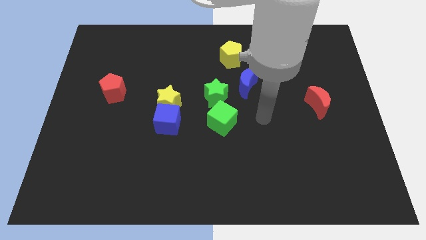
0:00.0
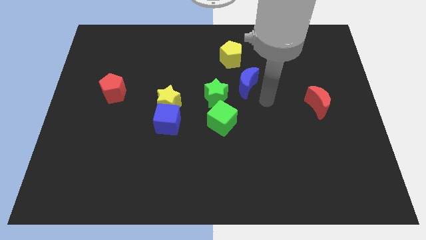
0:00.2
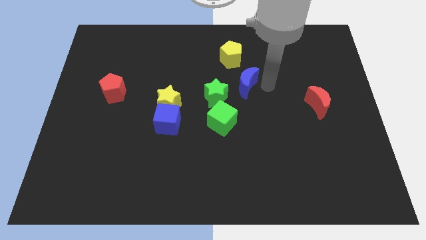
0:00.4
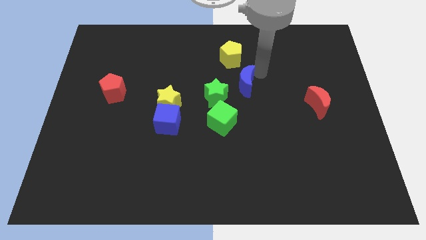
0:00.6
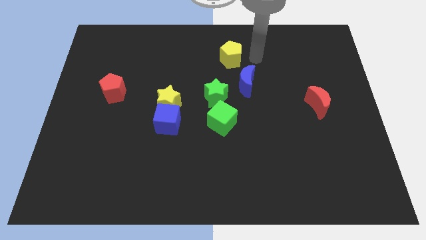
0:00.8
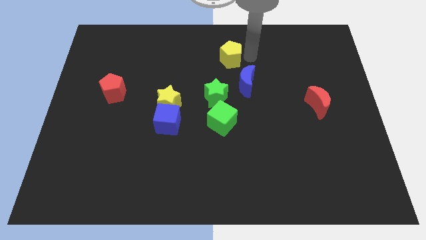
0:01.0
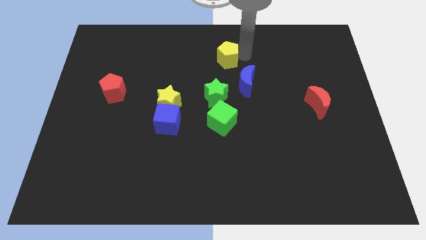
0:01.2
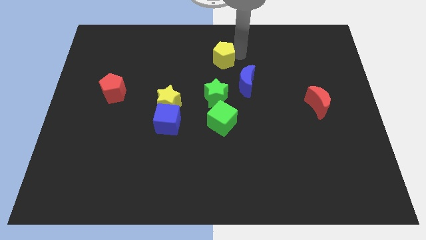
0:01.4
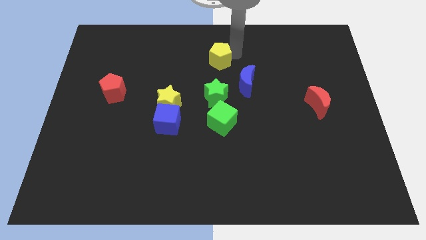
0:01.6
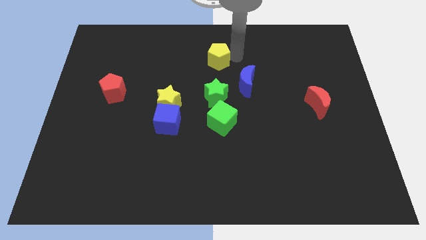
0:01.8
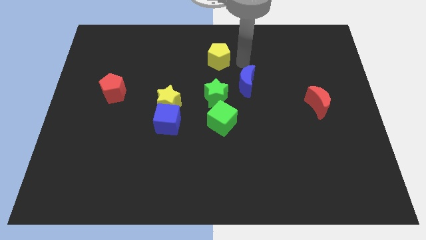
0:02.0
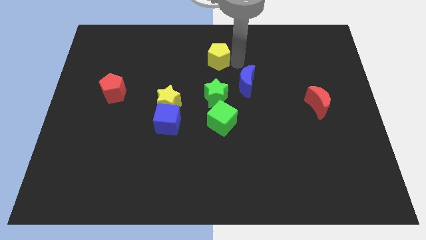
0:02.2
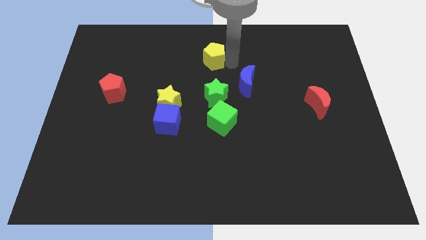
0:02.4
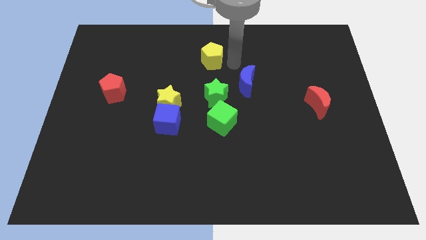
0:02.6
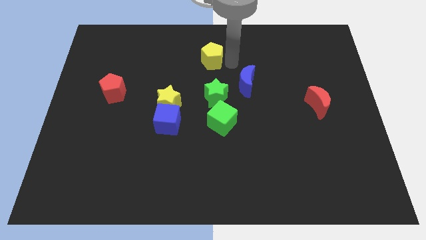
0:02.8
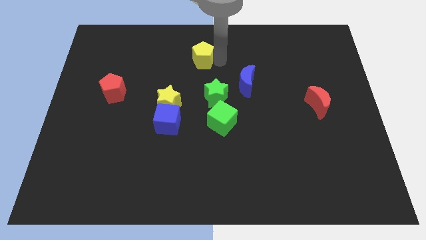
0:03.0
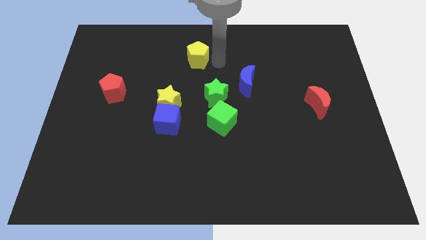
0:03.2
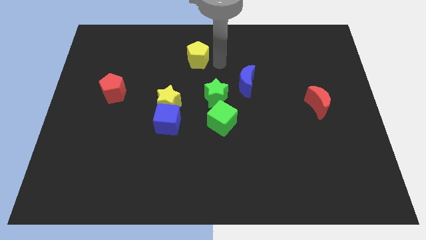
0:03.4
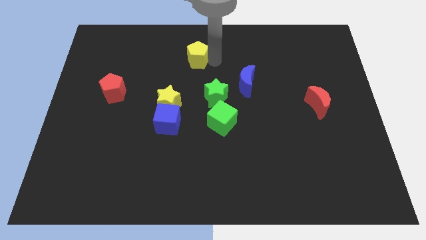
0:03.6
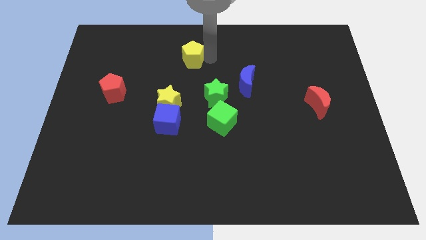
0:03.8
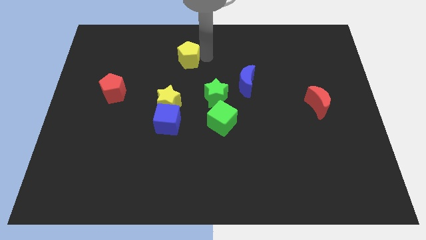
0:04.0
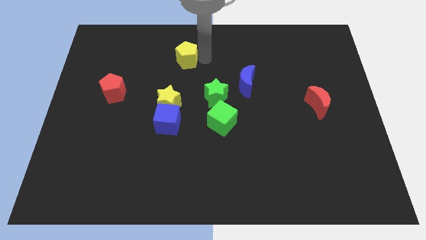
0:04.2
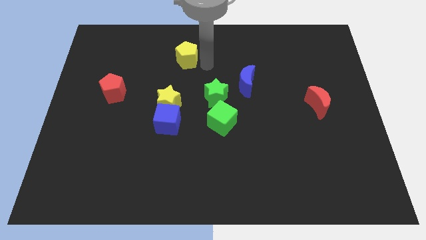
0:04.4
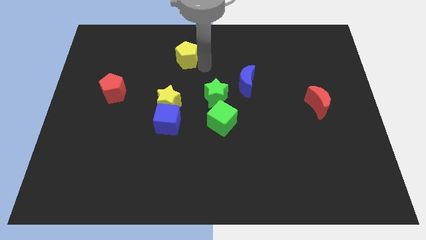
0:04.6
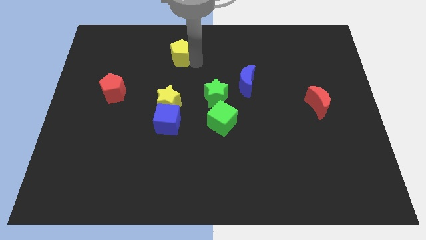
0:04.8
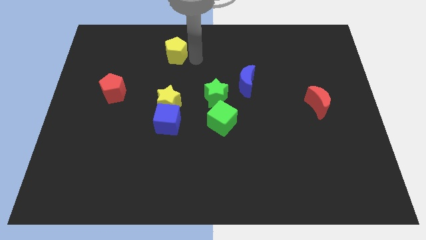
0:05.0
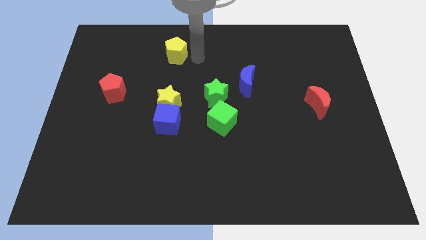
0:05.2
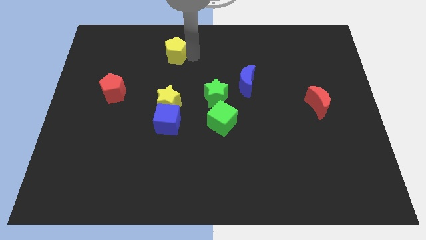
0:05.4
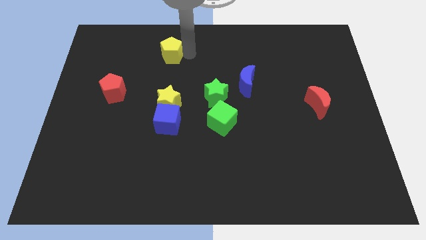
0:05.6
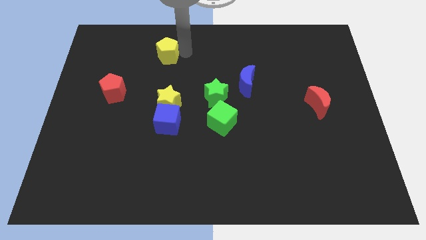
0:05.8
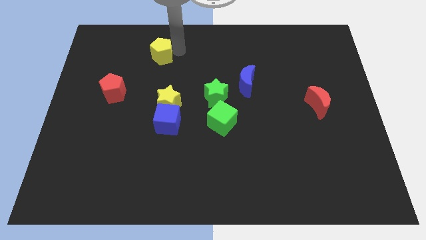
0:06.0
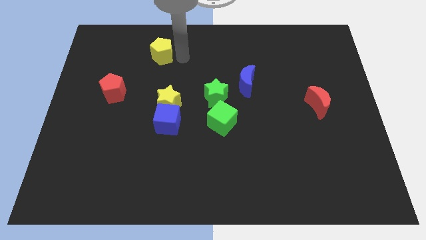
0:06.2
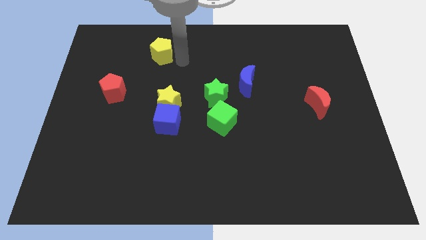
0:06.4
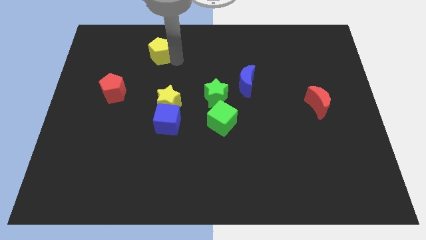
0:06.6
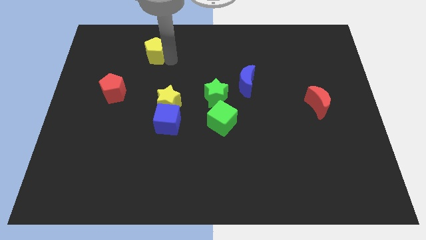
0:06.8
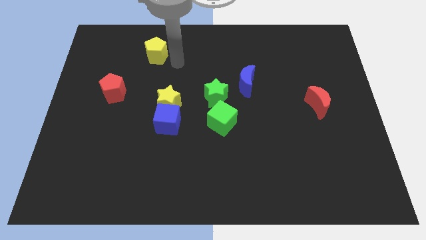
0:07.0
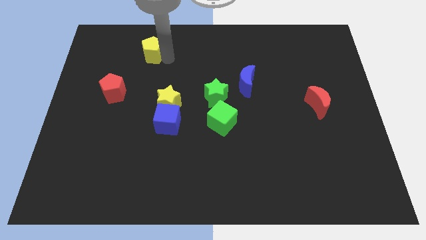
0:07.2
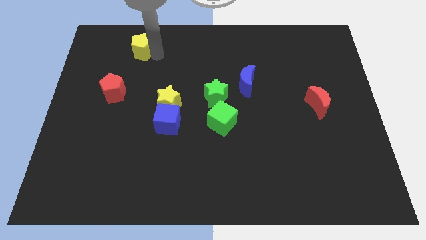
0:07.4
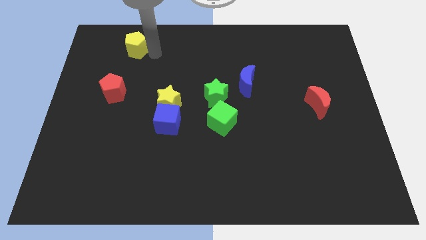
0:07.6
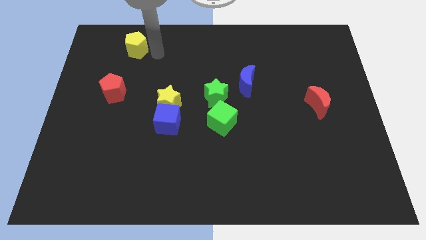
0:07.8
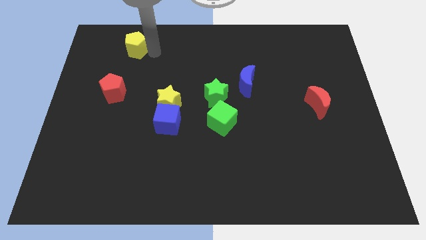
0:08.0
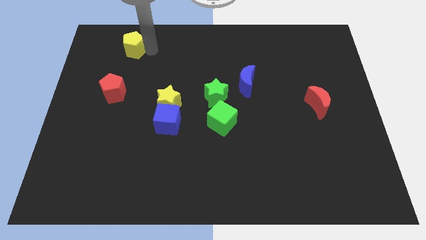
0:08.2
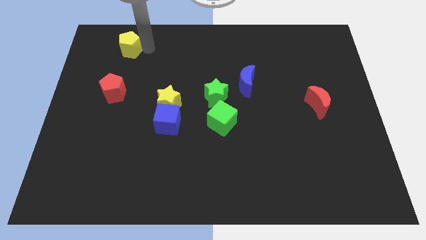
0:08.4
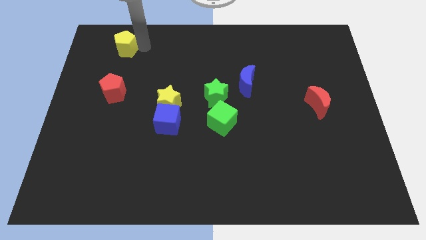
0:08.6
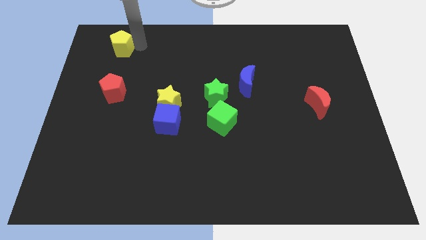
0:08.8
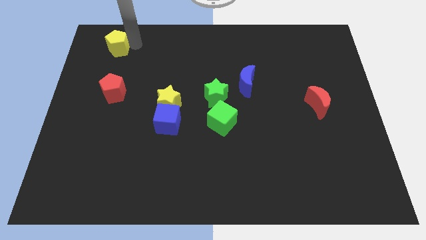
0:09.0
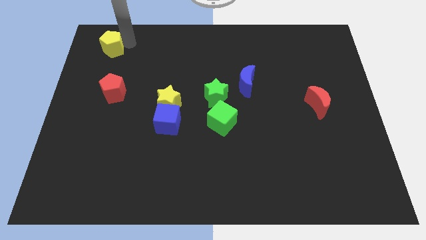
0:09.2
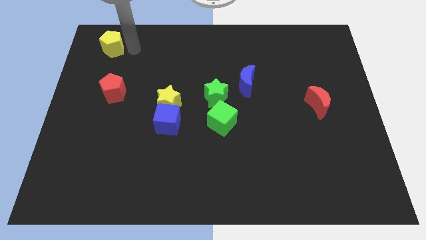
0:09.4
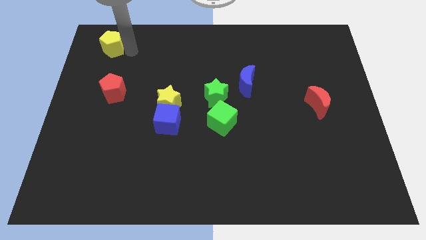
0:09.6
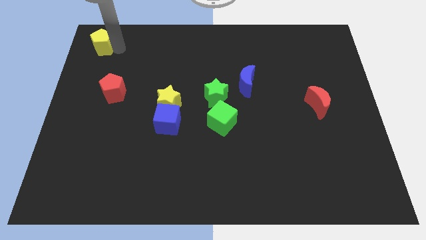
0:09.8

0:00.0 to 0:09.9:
move the yellow pentagon to the top left of the board
